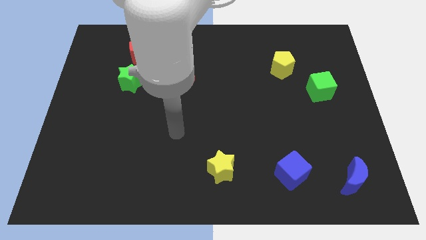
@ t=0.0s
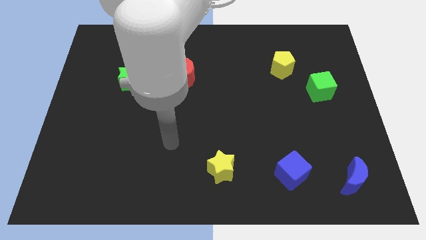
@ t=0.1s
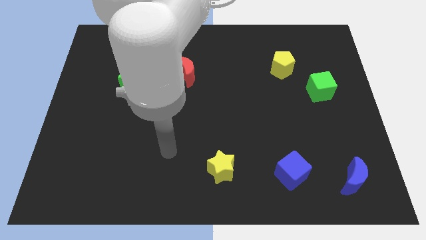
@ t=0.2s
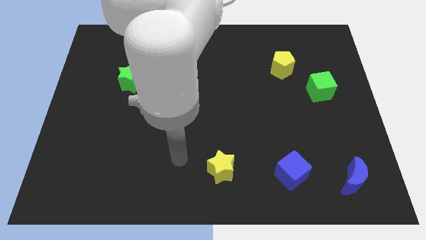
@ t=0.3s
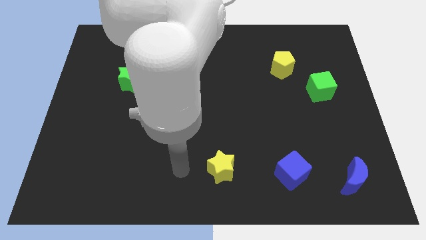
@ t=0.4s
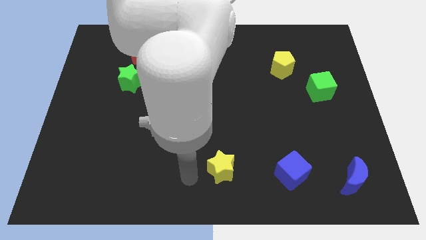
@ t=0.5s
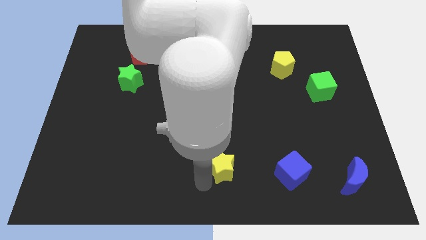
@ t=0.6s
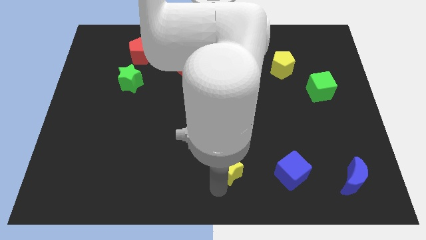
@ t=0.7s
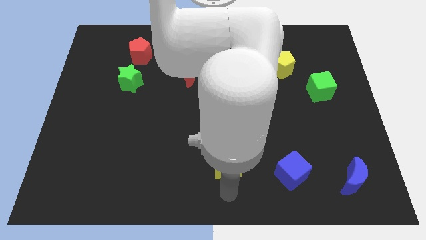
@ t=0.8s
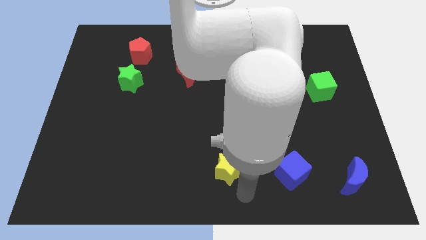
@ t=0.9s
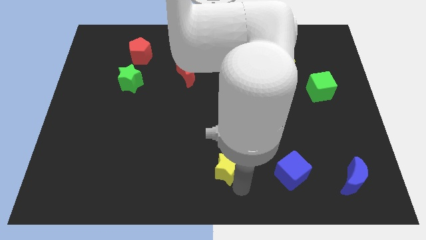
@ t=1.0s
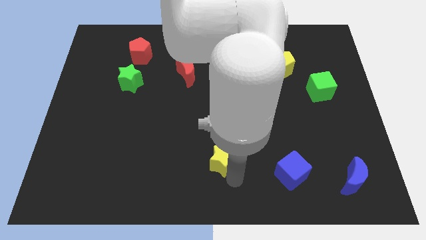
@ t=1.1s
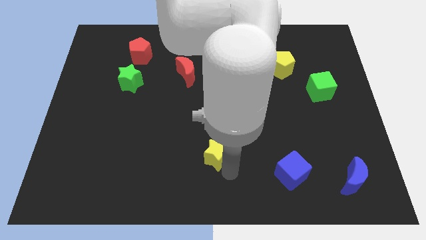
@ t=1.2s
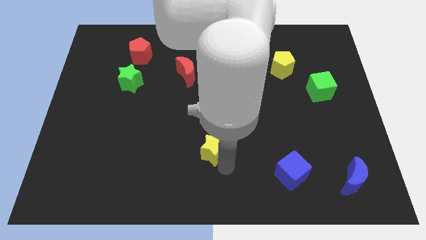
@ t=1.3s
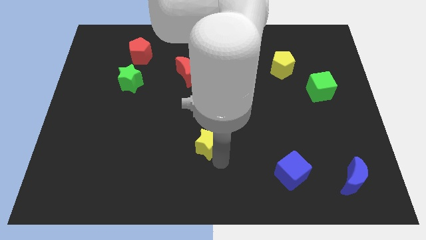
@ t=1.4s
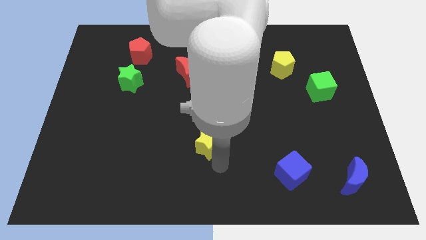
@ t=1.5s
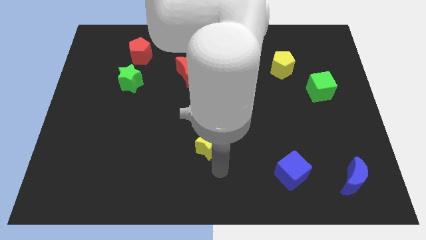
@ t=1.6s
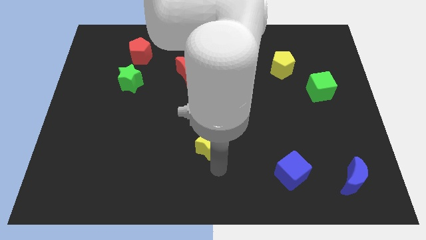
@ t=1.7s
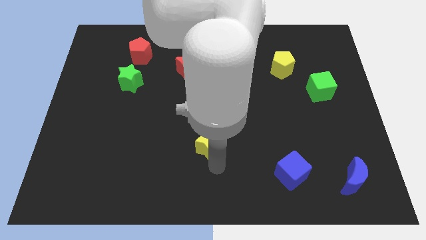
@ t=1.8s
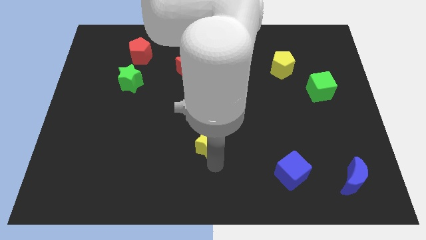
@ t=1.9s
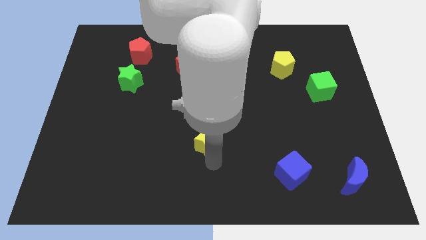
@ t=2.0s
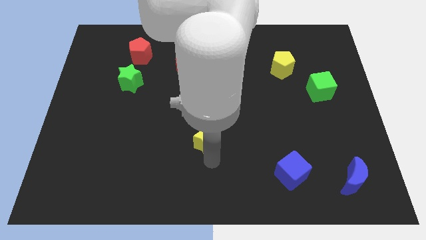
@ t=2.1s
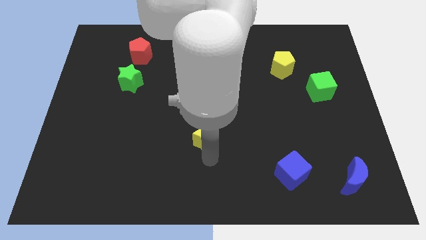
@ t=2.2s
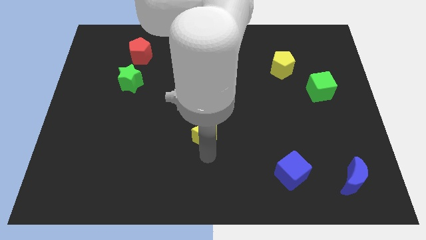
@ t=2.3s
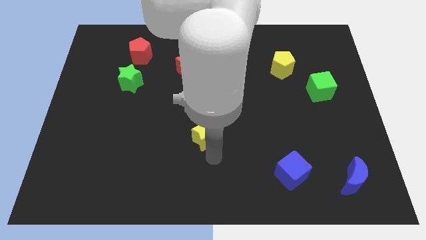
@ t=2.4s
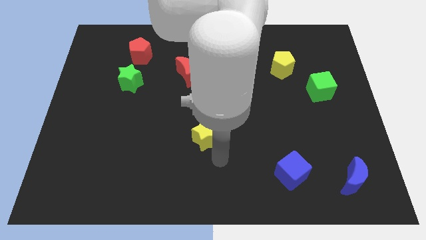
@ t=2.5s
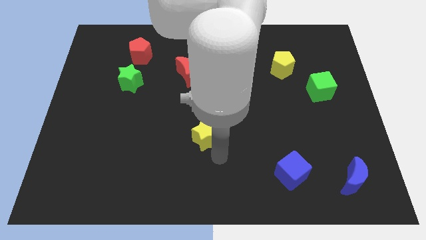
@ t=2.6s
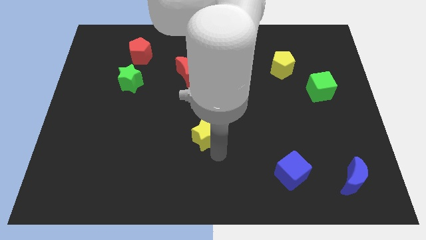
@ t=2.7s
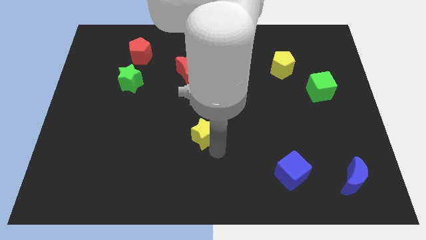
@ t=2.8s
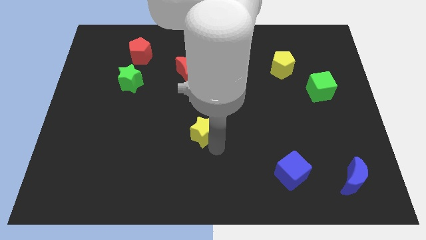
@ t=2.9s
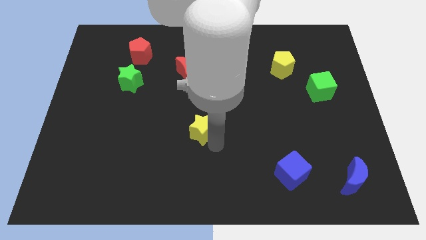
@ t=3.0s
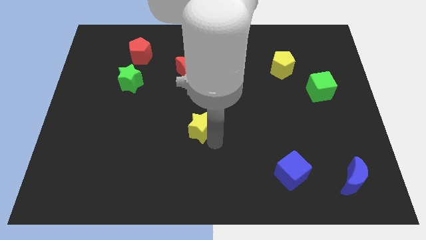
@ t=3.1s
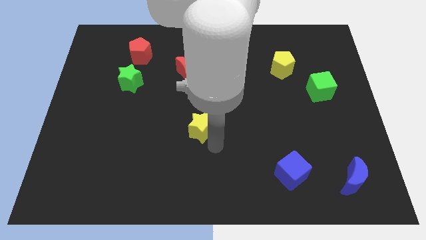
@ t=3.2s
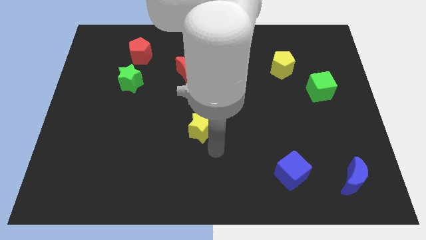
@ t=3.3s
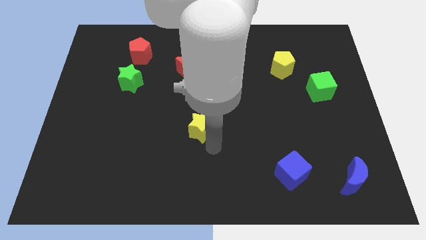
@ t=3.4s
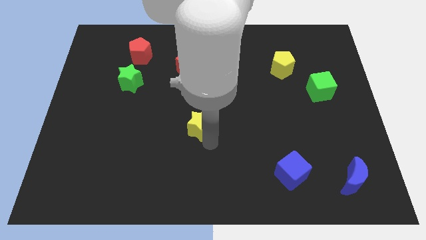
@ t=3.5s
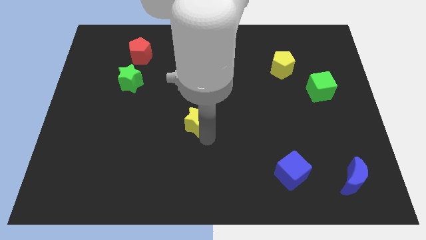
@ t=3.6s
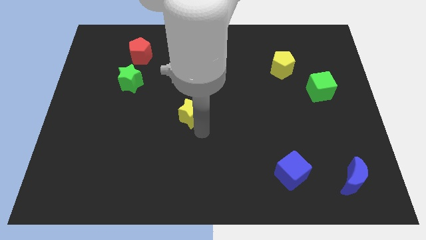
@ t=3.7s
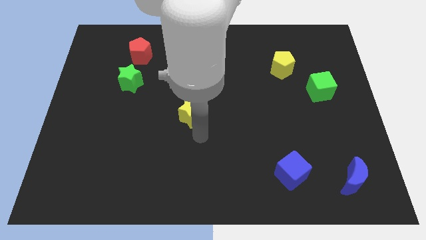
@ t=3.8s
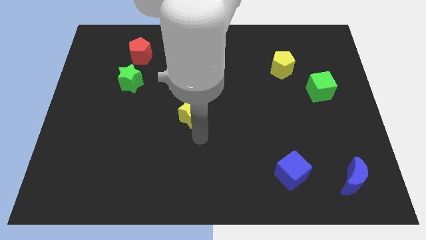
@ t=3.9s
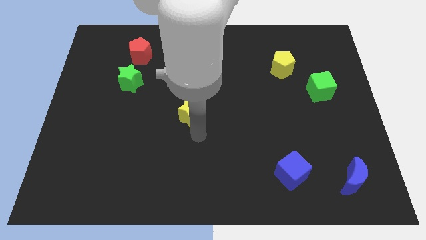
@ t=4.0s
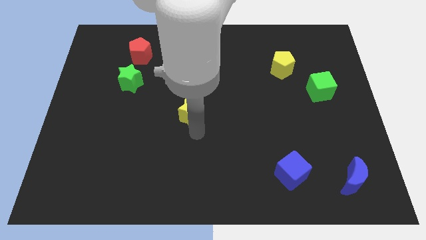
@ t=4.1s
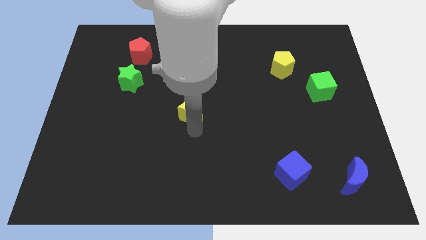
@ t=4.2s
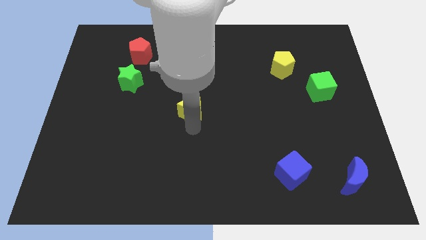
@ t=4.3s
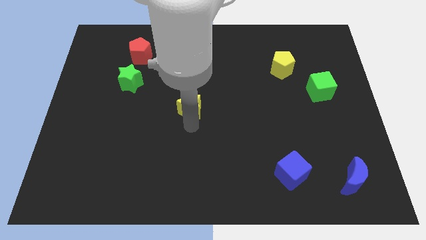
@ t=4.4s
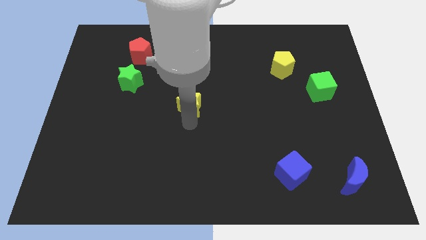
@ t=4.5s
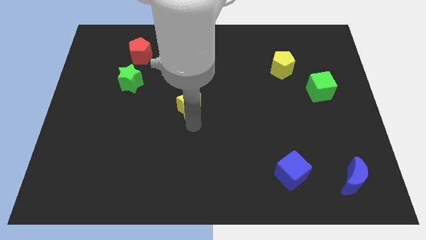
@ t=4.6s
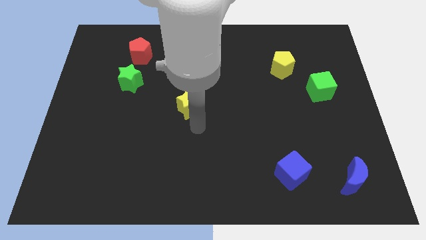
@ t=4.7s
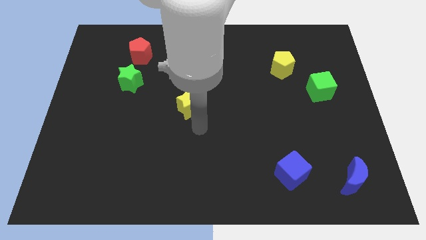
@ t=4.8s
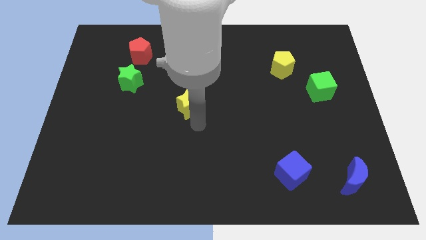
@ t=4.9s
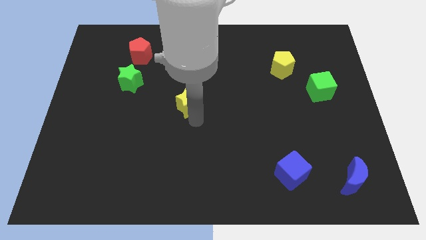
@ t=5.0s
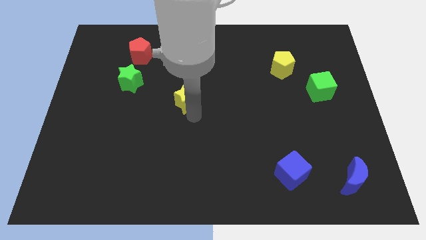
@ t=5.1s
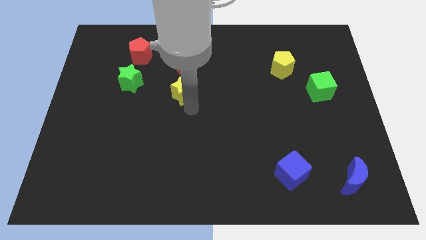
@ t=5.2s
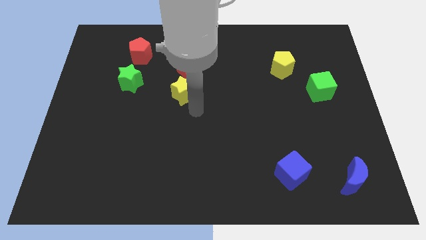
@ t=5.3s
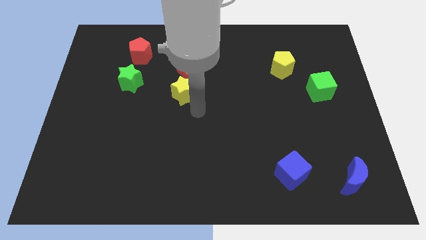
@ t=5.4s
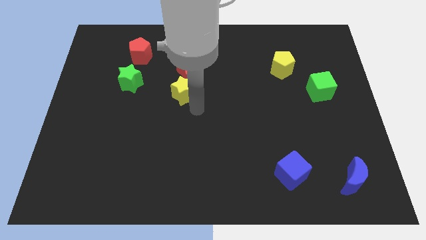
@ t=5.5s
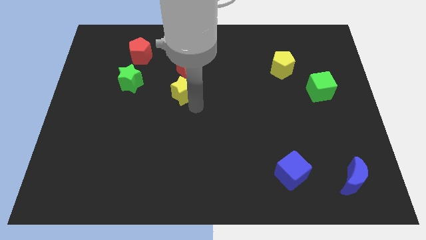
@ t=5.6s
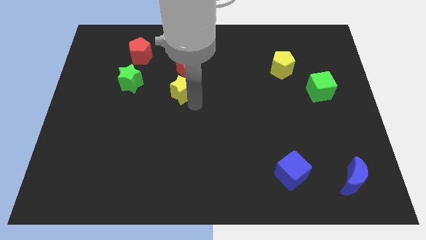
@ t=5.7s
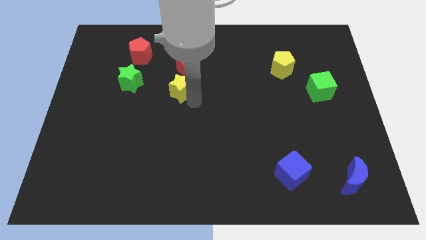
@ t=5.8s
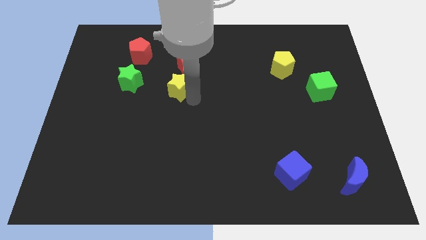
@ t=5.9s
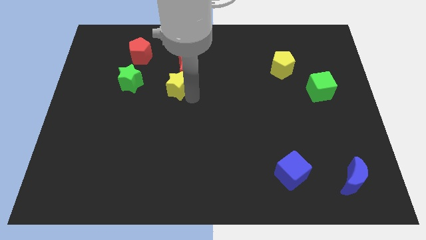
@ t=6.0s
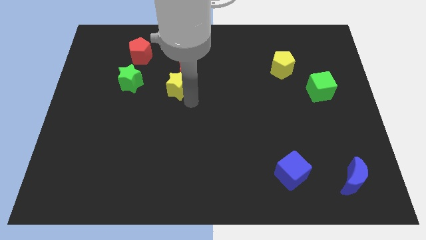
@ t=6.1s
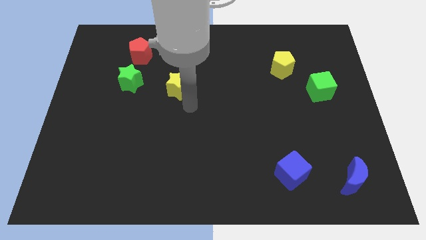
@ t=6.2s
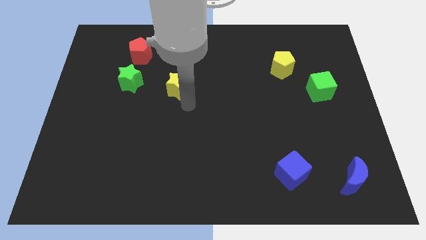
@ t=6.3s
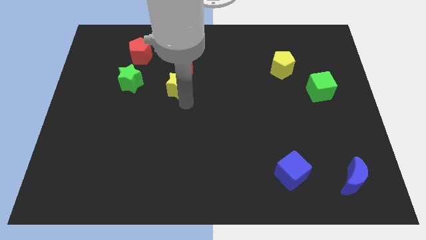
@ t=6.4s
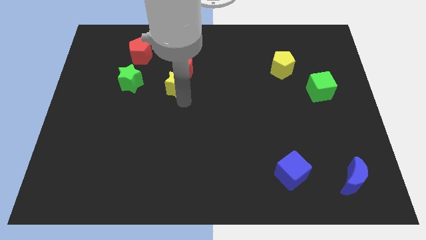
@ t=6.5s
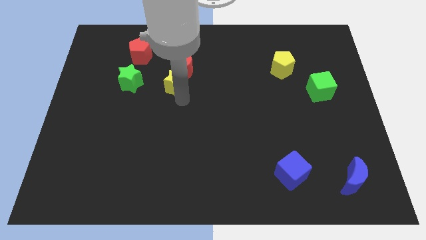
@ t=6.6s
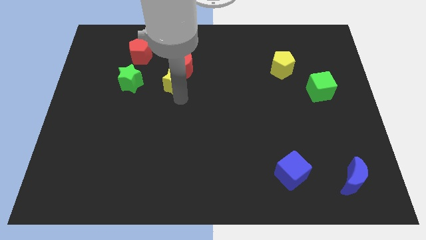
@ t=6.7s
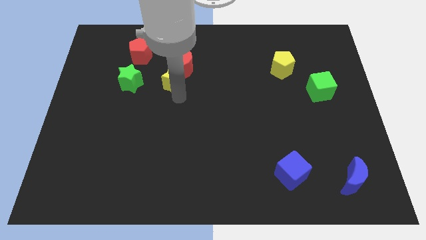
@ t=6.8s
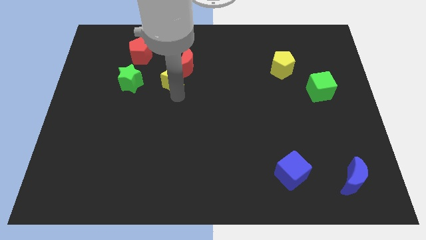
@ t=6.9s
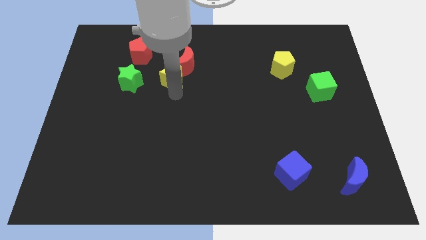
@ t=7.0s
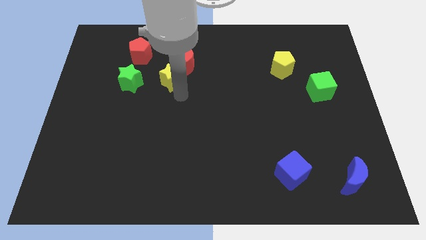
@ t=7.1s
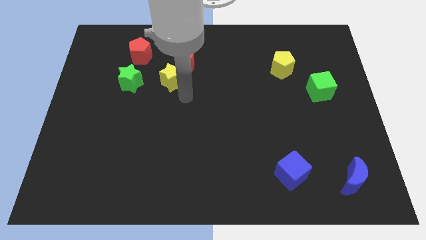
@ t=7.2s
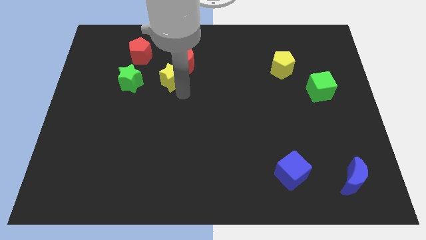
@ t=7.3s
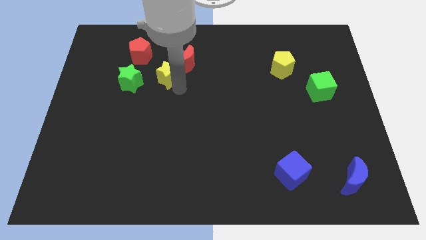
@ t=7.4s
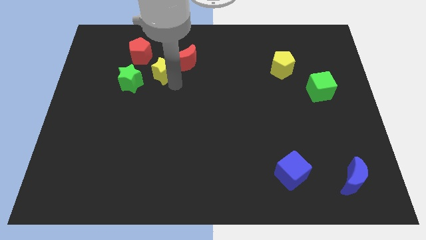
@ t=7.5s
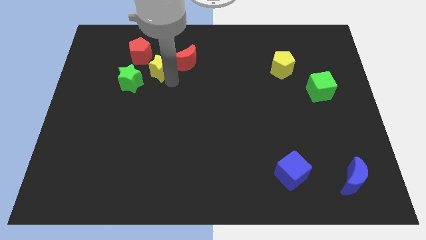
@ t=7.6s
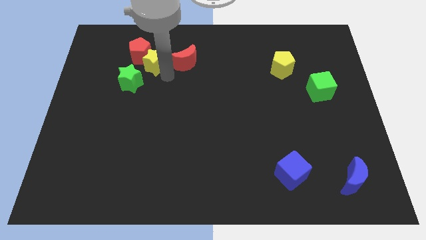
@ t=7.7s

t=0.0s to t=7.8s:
put the yellow star towards the red pentagon
